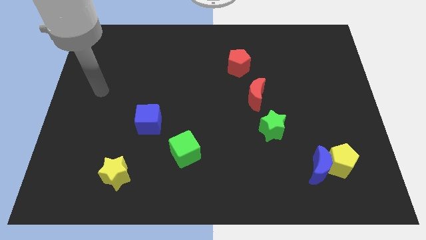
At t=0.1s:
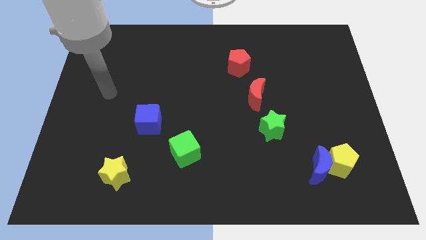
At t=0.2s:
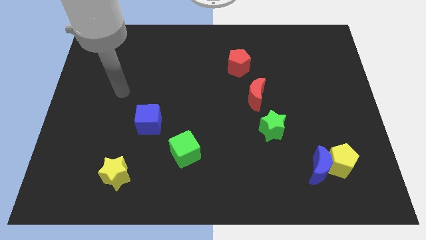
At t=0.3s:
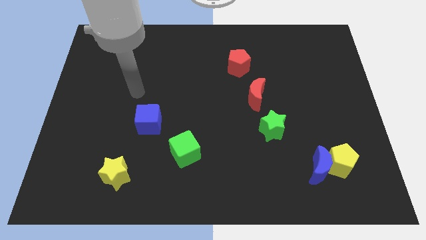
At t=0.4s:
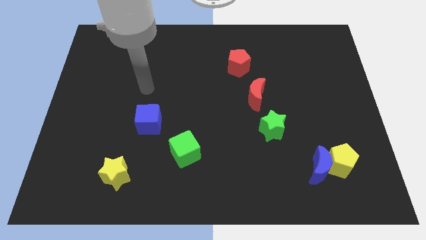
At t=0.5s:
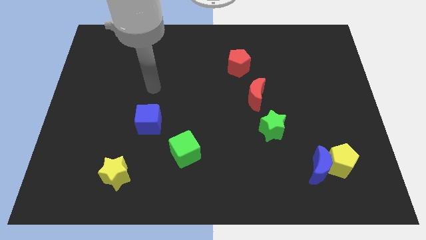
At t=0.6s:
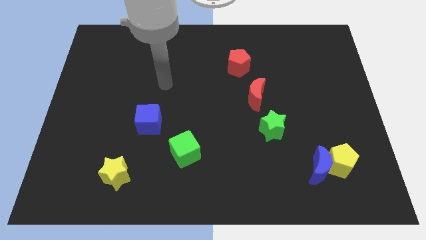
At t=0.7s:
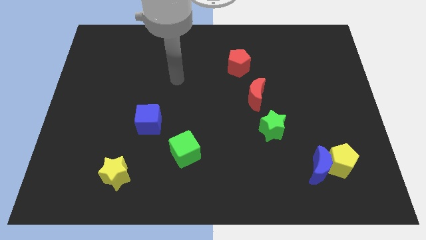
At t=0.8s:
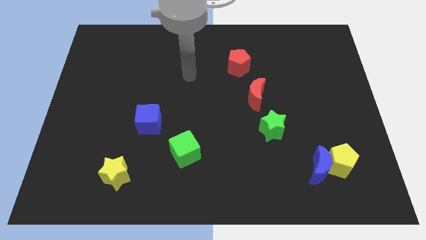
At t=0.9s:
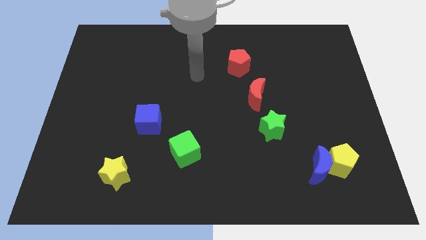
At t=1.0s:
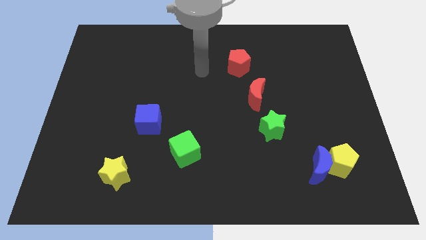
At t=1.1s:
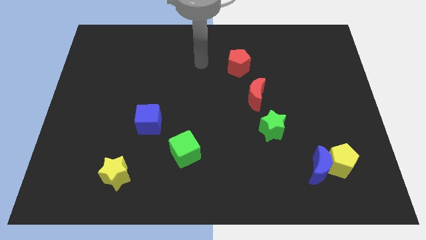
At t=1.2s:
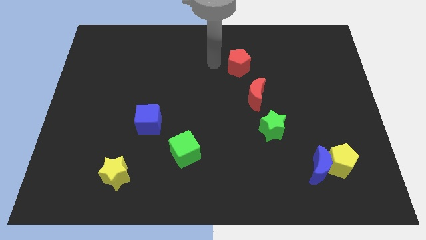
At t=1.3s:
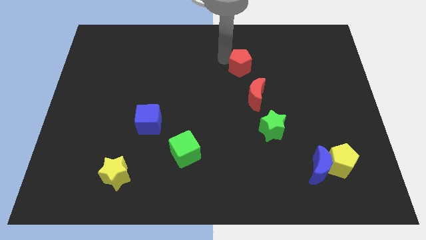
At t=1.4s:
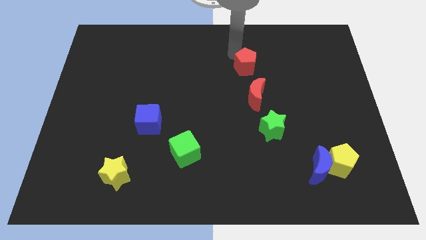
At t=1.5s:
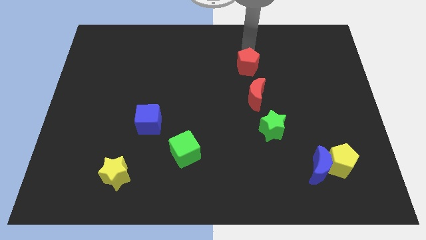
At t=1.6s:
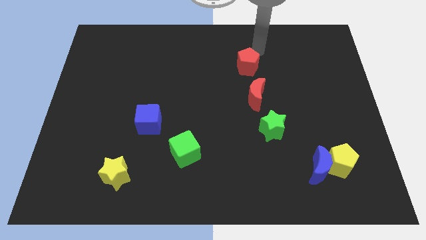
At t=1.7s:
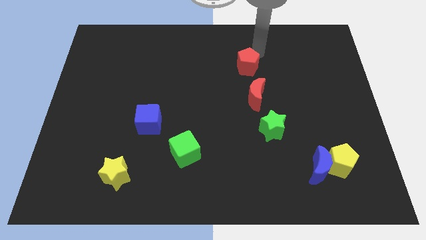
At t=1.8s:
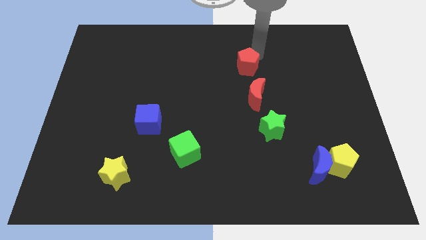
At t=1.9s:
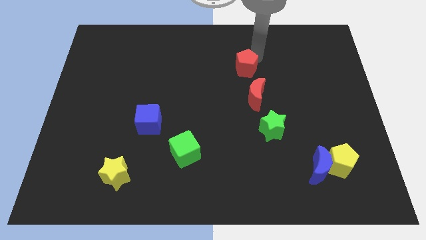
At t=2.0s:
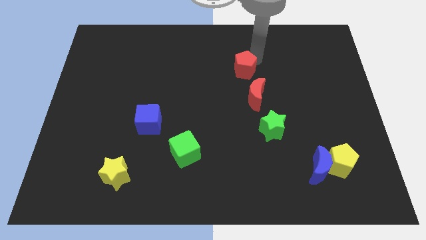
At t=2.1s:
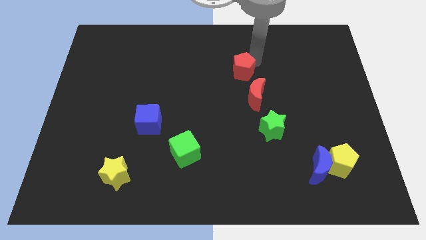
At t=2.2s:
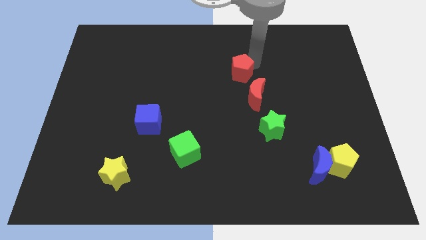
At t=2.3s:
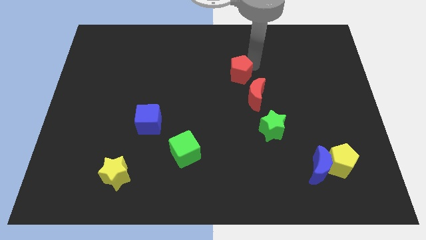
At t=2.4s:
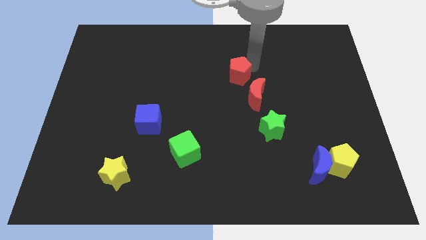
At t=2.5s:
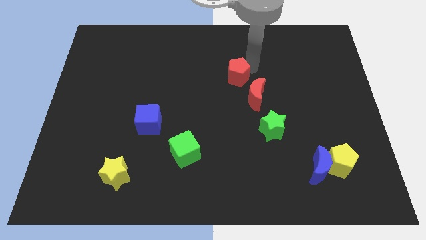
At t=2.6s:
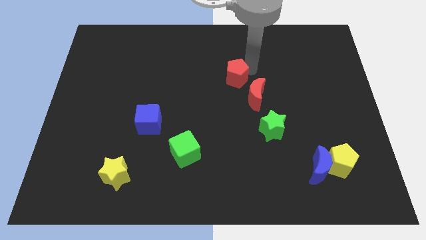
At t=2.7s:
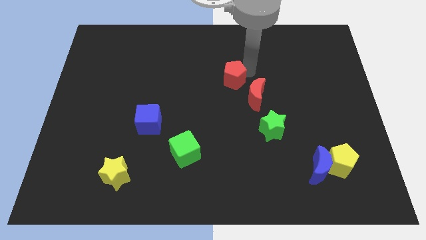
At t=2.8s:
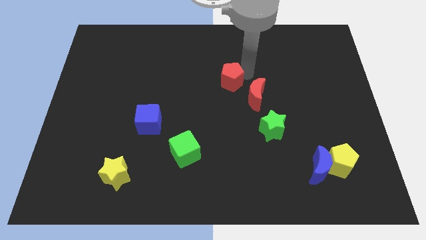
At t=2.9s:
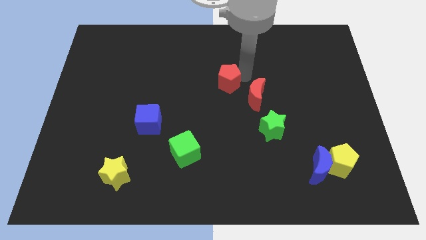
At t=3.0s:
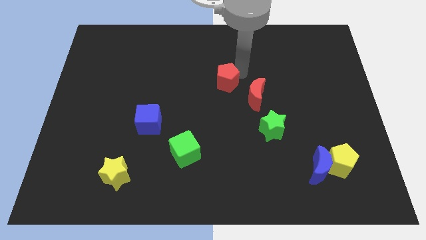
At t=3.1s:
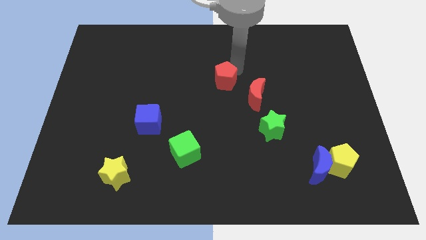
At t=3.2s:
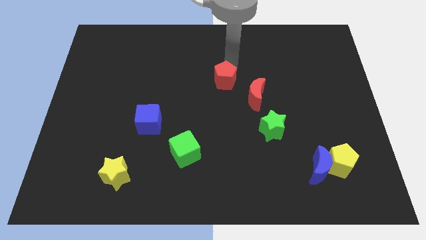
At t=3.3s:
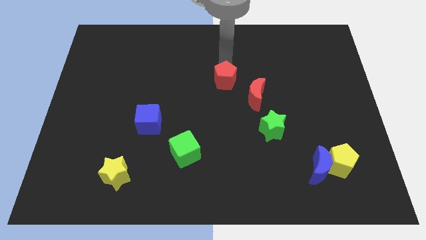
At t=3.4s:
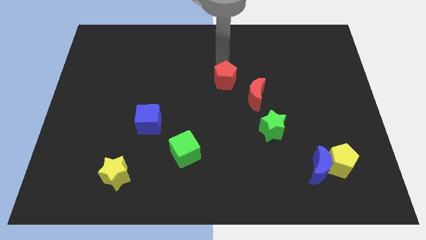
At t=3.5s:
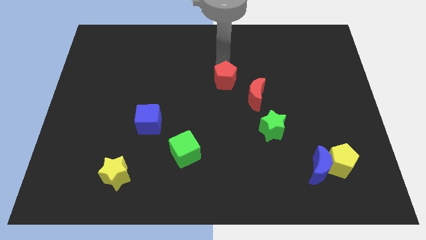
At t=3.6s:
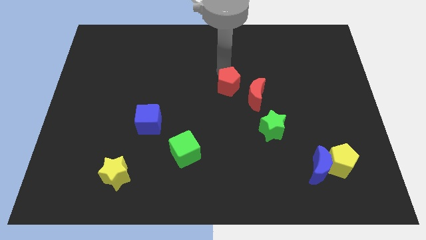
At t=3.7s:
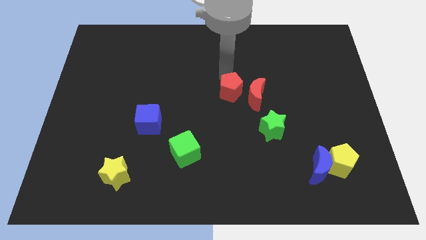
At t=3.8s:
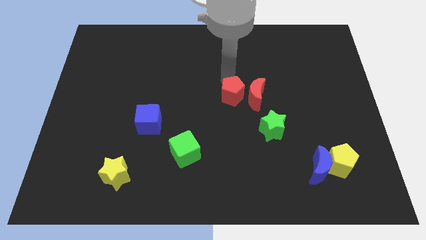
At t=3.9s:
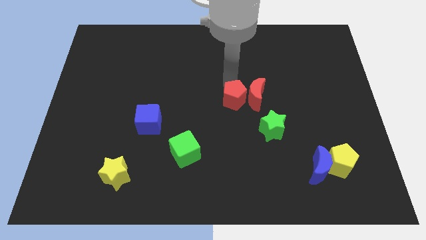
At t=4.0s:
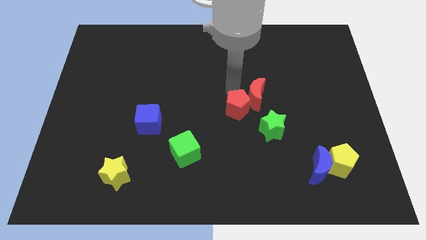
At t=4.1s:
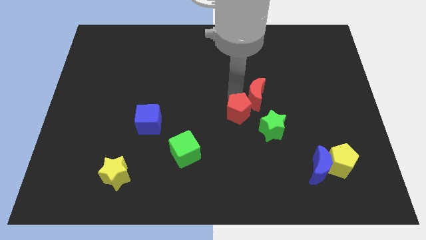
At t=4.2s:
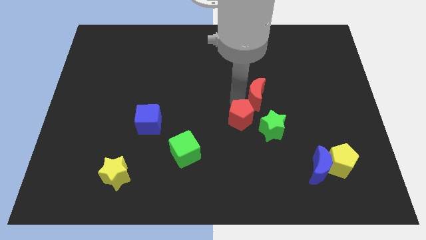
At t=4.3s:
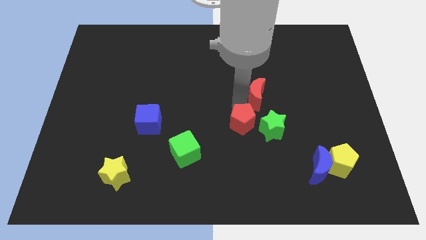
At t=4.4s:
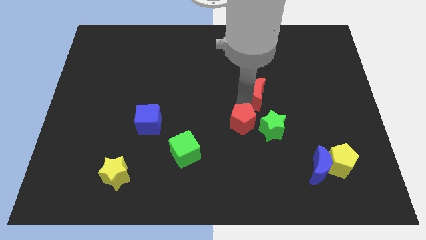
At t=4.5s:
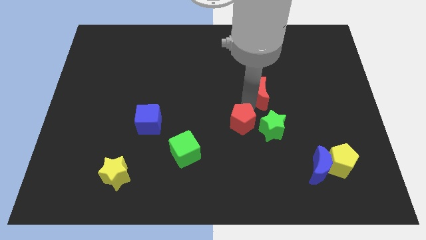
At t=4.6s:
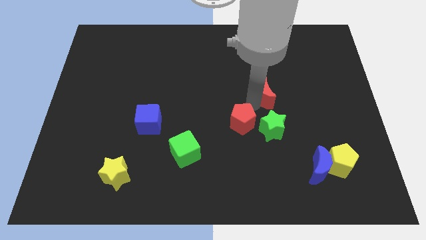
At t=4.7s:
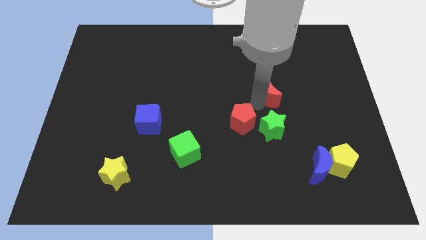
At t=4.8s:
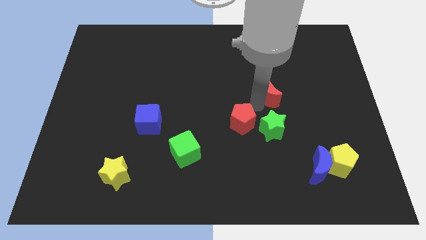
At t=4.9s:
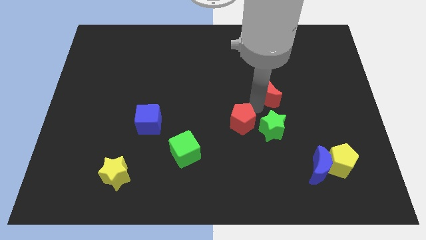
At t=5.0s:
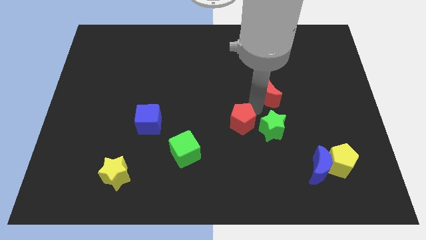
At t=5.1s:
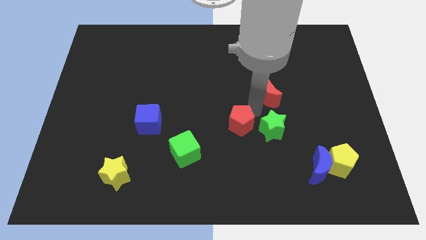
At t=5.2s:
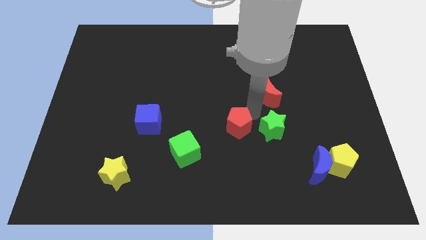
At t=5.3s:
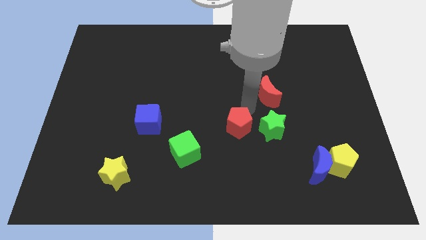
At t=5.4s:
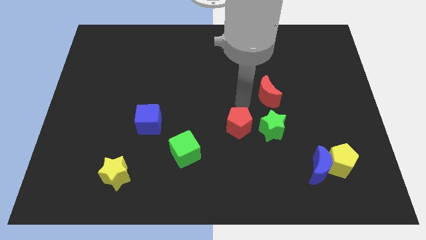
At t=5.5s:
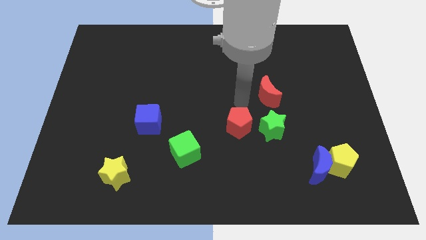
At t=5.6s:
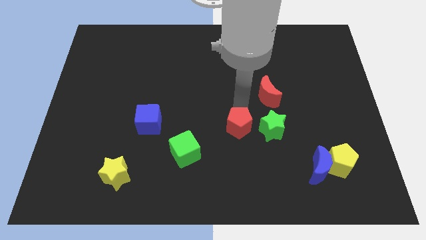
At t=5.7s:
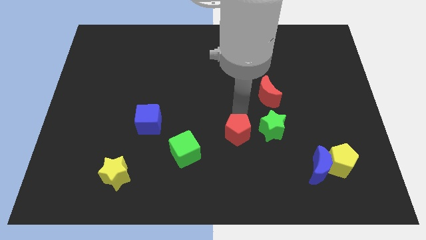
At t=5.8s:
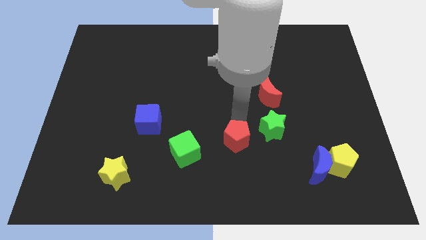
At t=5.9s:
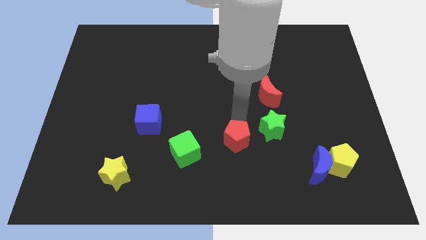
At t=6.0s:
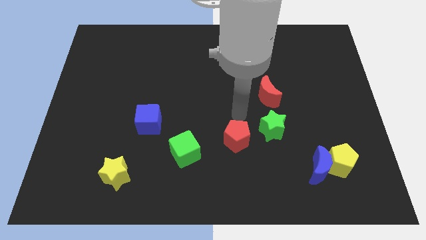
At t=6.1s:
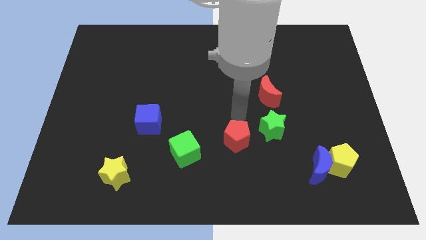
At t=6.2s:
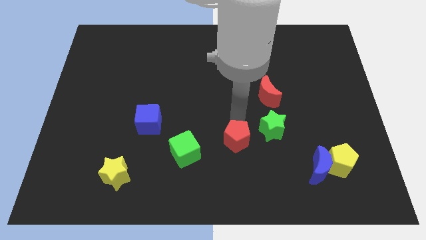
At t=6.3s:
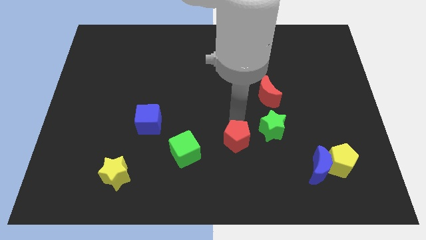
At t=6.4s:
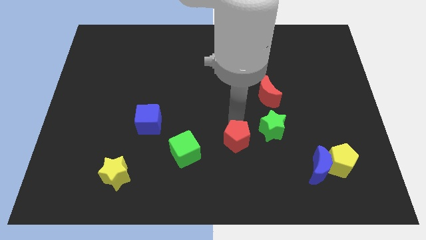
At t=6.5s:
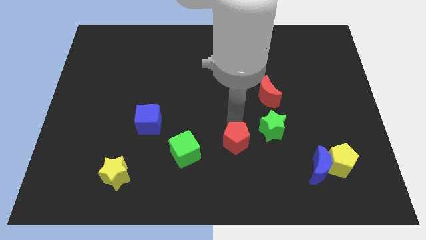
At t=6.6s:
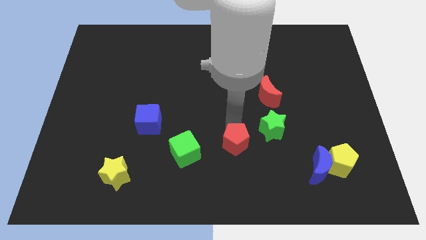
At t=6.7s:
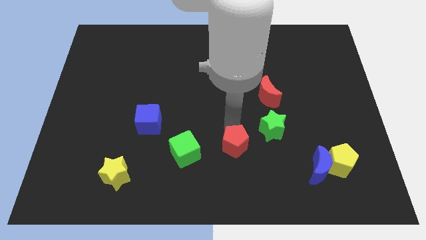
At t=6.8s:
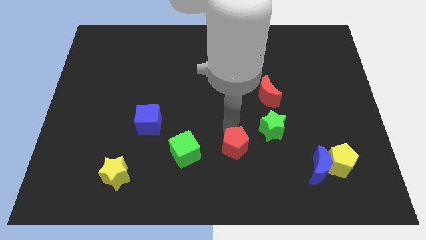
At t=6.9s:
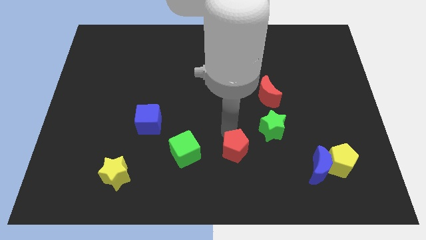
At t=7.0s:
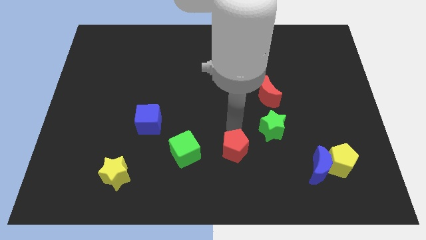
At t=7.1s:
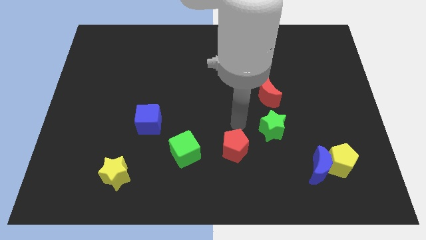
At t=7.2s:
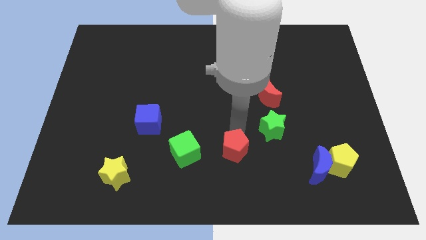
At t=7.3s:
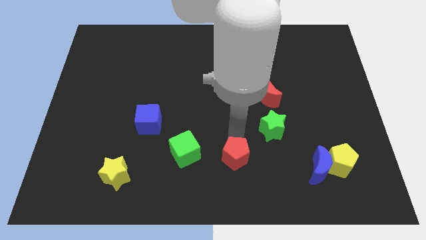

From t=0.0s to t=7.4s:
move the red pentagon to the bottom
